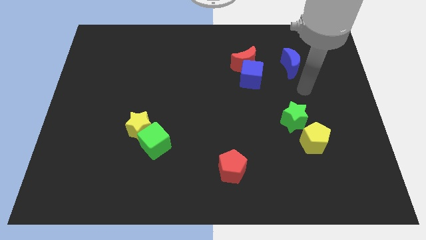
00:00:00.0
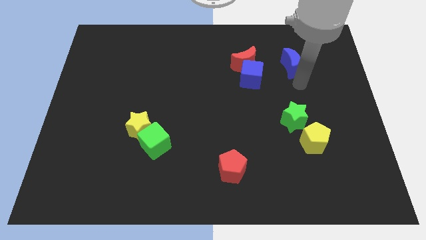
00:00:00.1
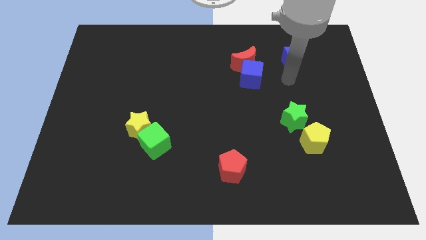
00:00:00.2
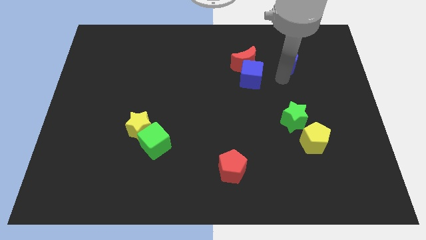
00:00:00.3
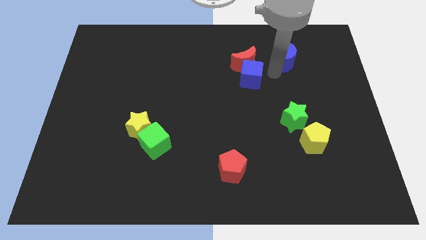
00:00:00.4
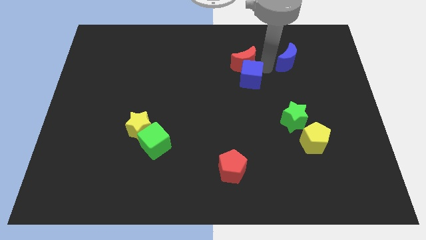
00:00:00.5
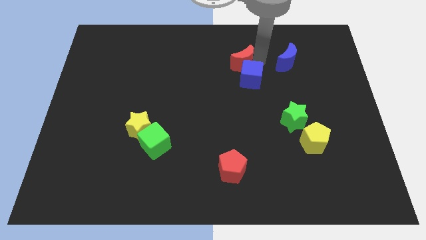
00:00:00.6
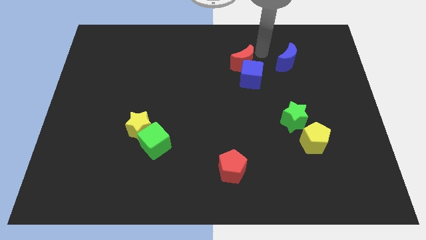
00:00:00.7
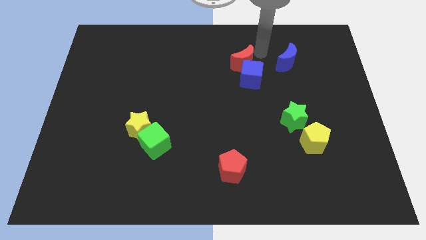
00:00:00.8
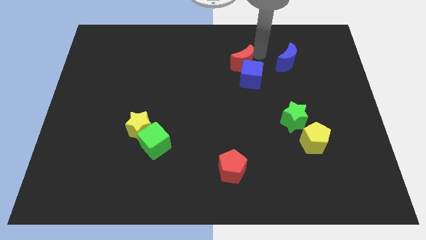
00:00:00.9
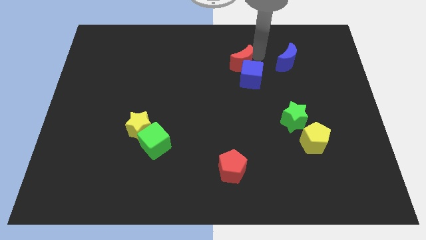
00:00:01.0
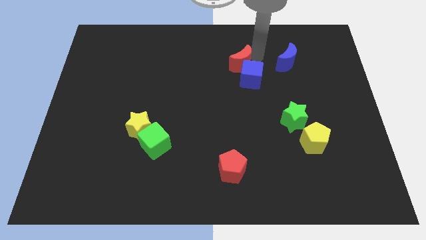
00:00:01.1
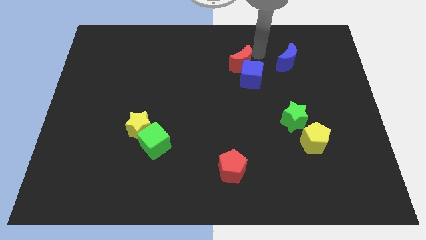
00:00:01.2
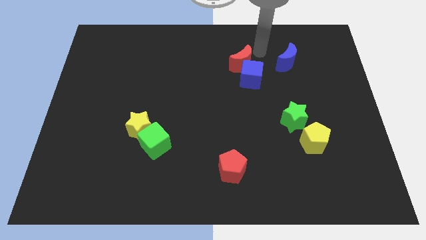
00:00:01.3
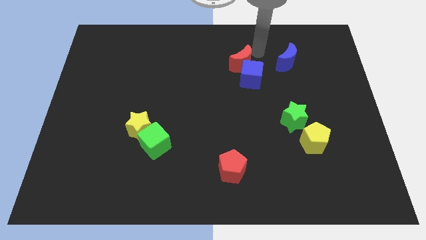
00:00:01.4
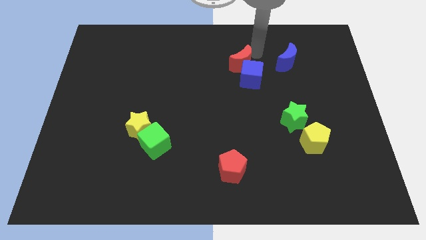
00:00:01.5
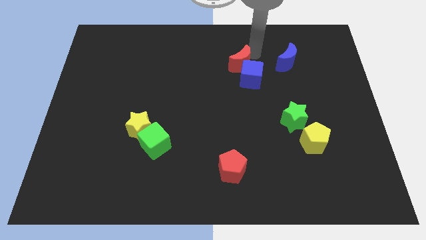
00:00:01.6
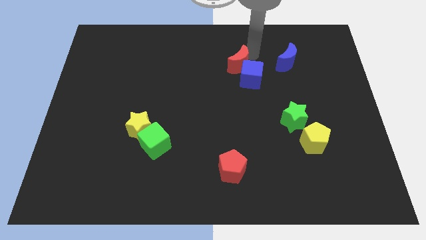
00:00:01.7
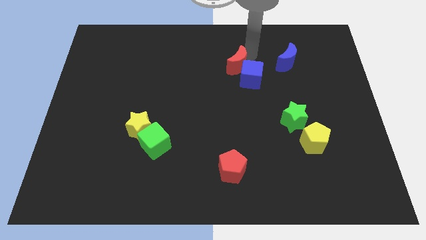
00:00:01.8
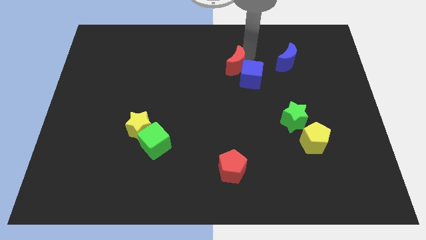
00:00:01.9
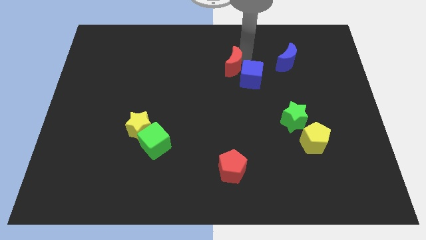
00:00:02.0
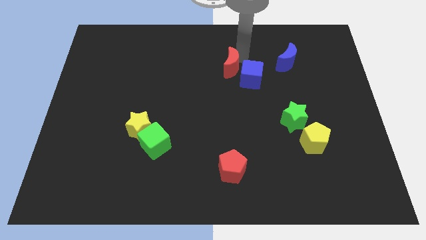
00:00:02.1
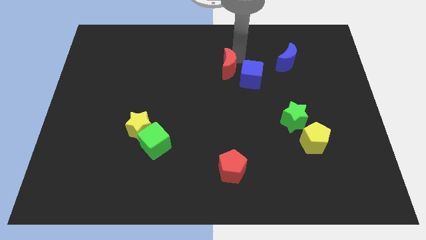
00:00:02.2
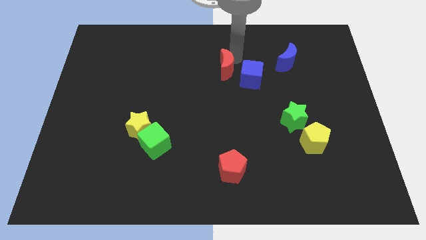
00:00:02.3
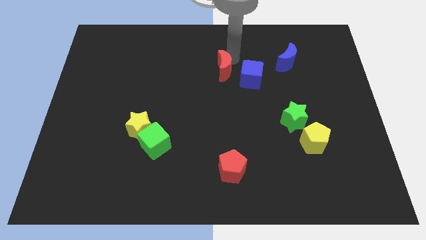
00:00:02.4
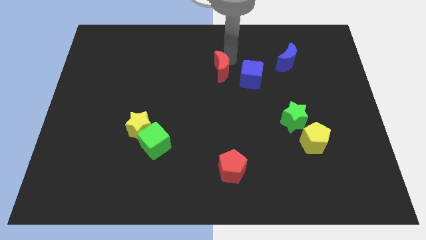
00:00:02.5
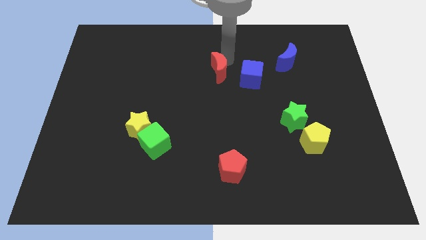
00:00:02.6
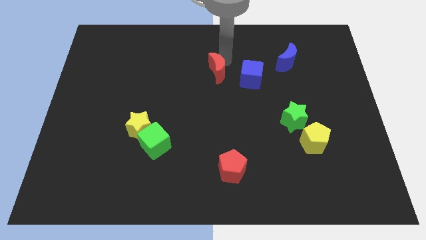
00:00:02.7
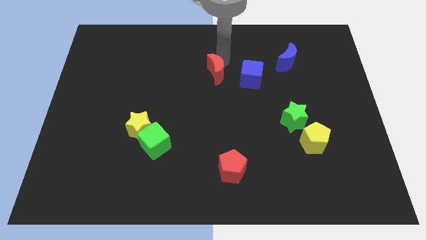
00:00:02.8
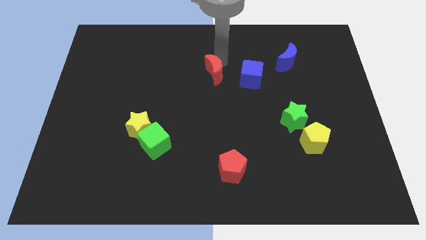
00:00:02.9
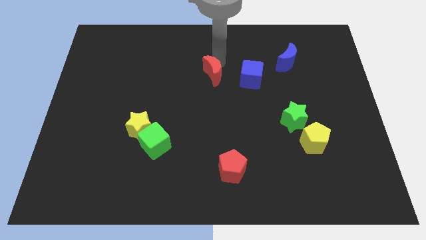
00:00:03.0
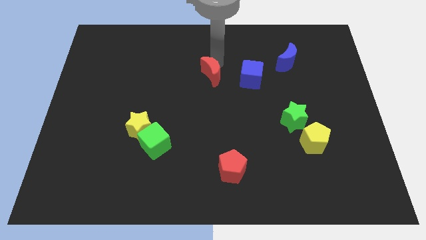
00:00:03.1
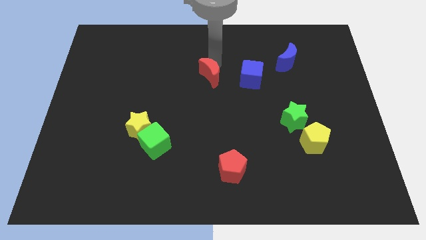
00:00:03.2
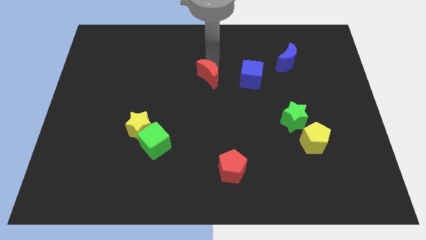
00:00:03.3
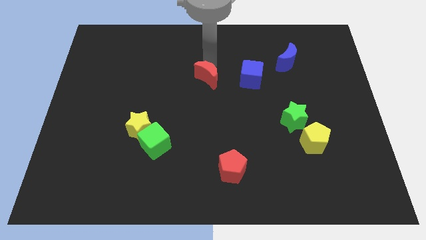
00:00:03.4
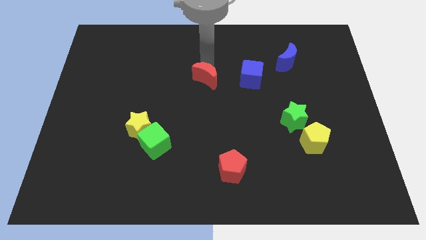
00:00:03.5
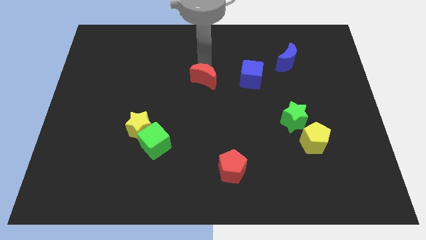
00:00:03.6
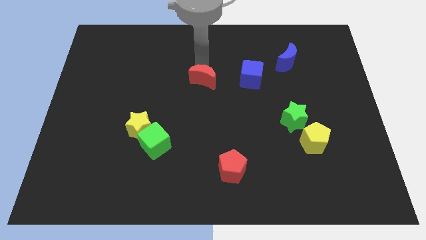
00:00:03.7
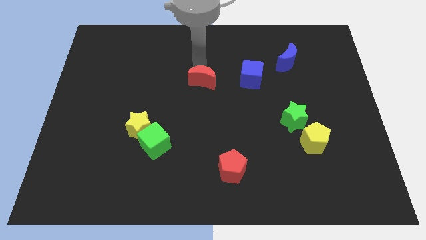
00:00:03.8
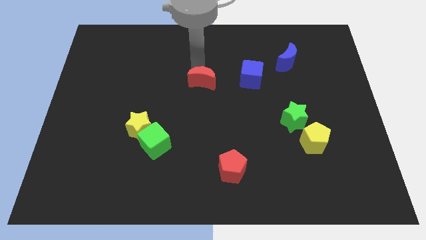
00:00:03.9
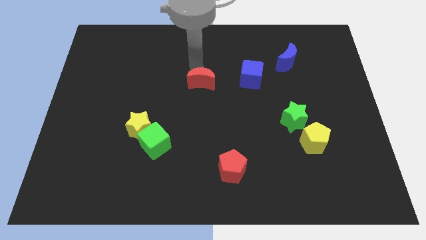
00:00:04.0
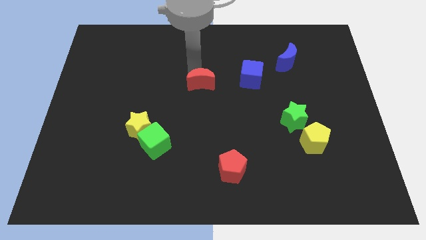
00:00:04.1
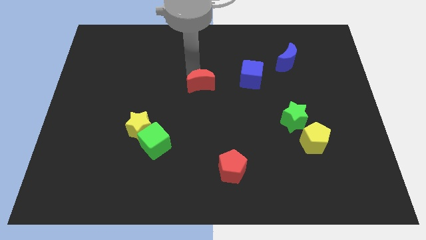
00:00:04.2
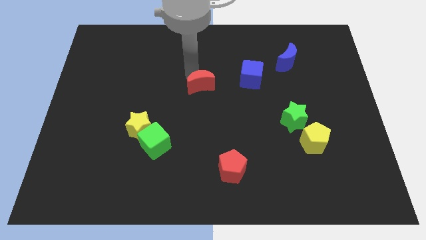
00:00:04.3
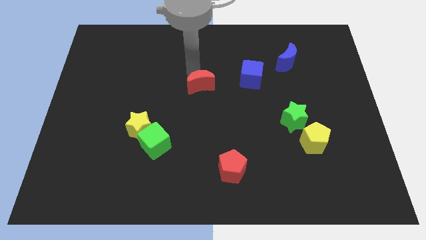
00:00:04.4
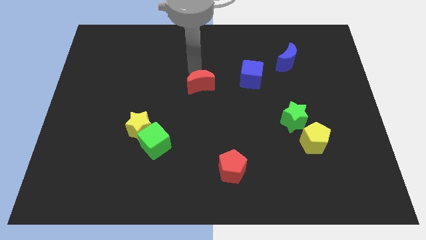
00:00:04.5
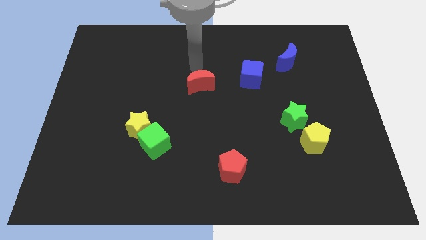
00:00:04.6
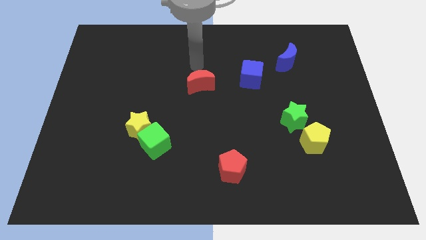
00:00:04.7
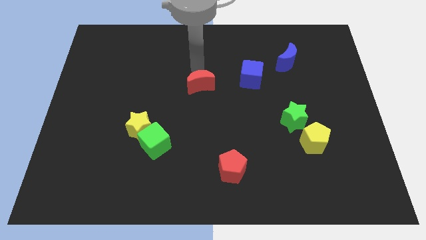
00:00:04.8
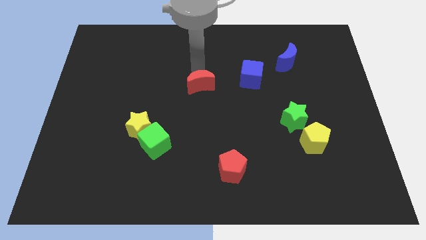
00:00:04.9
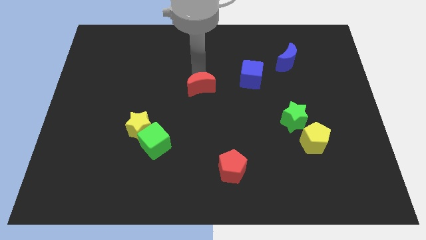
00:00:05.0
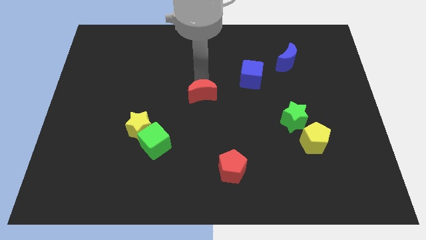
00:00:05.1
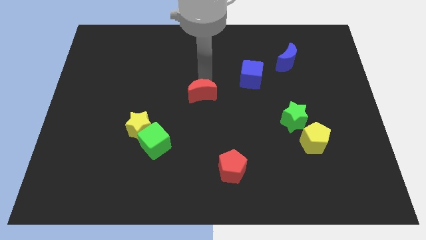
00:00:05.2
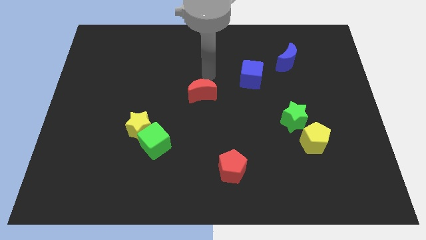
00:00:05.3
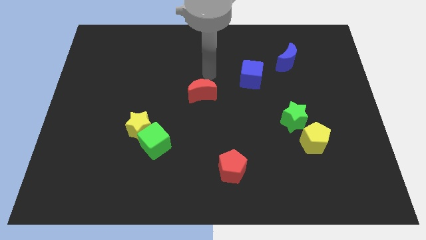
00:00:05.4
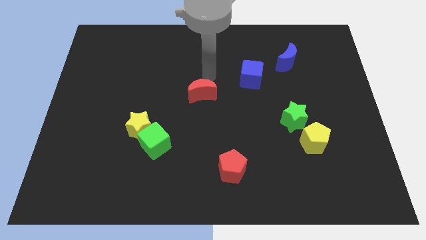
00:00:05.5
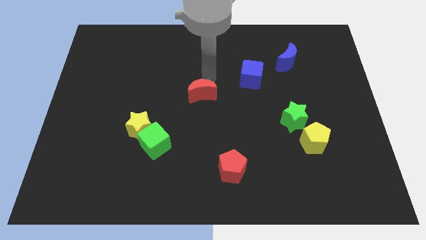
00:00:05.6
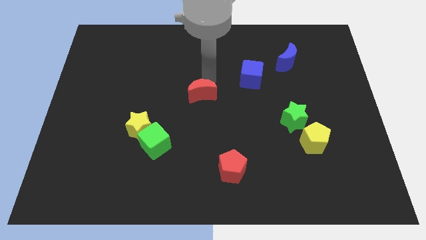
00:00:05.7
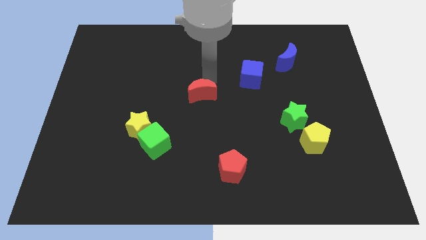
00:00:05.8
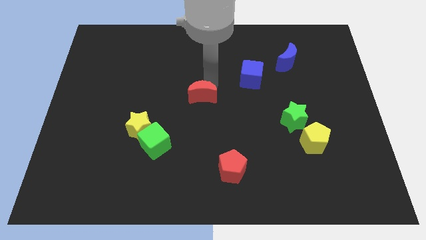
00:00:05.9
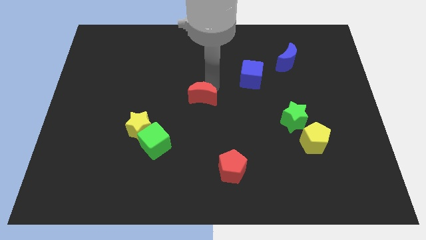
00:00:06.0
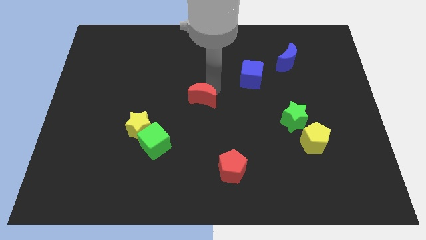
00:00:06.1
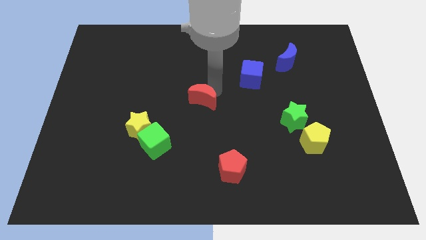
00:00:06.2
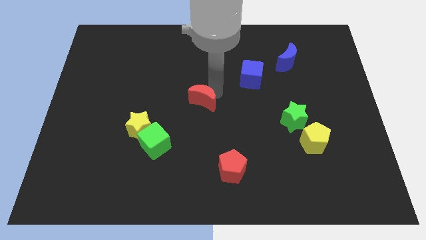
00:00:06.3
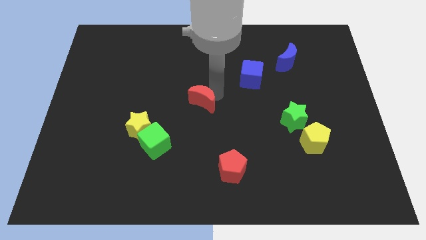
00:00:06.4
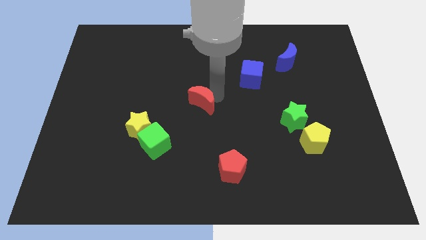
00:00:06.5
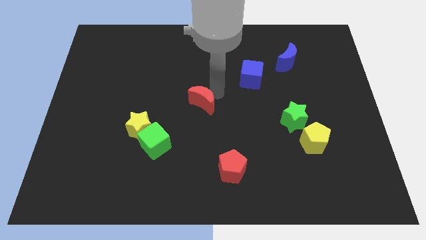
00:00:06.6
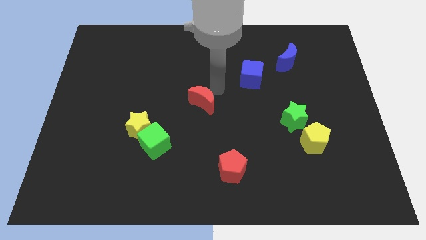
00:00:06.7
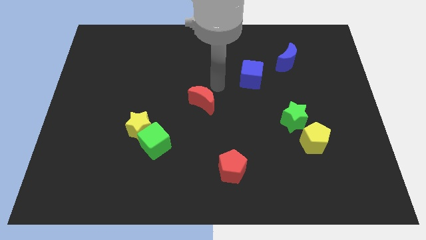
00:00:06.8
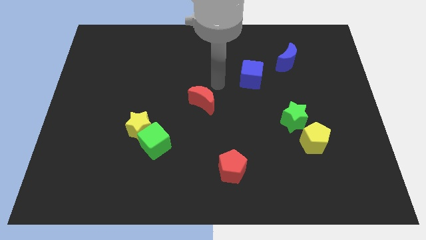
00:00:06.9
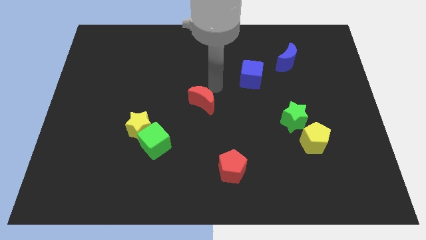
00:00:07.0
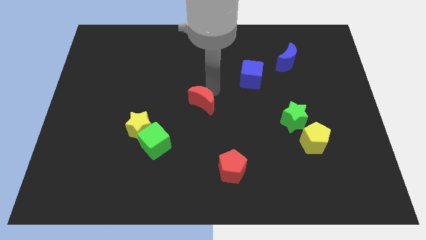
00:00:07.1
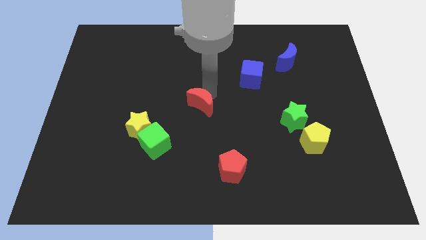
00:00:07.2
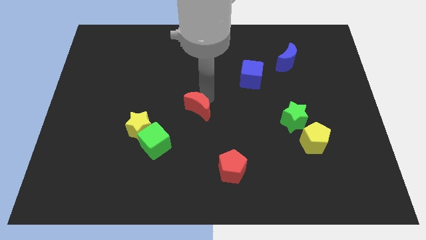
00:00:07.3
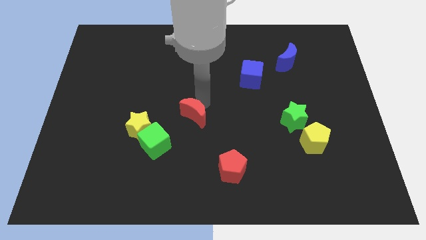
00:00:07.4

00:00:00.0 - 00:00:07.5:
slide the red moon to the right of the yellow star

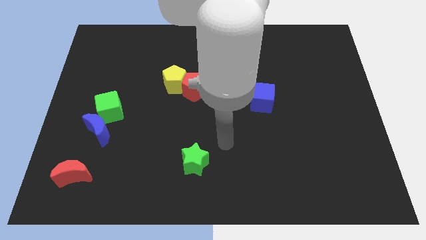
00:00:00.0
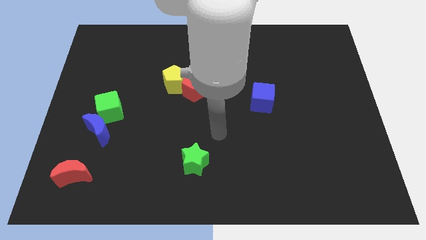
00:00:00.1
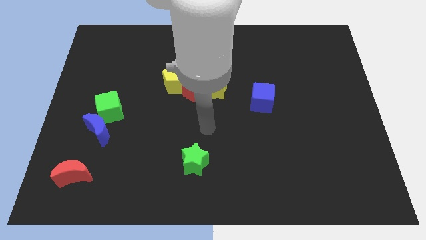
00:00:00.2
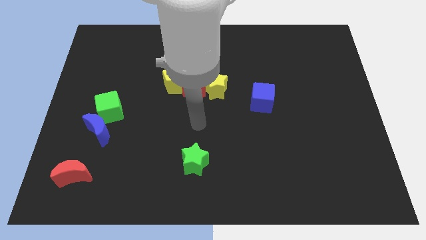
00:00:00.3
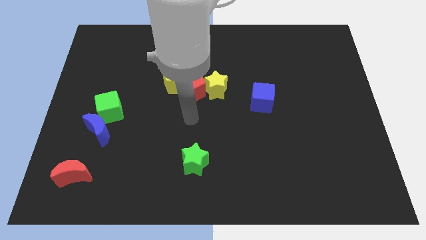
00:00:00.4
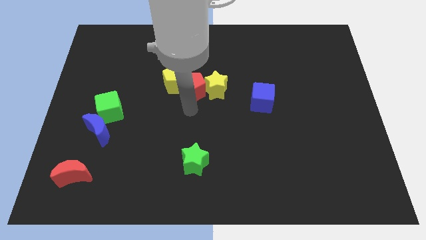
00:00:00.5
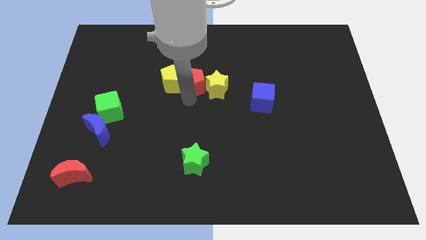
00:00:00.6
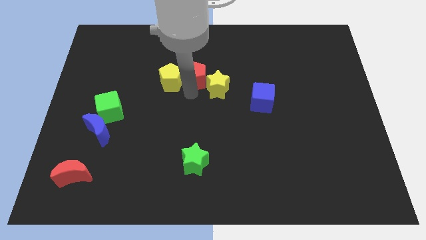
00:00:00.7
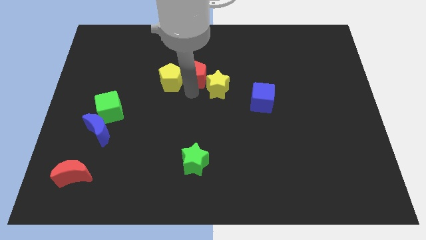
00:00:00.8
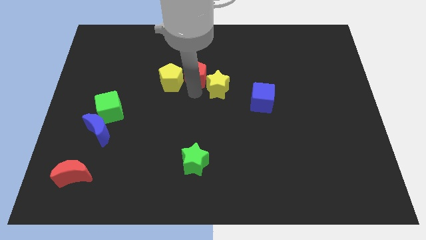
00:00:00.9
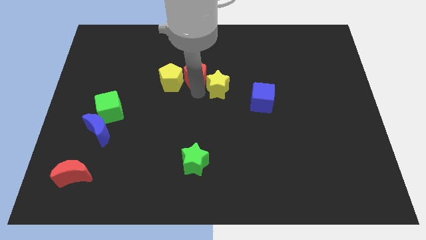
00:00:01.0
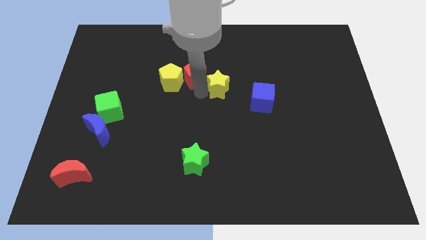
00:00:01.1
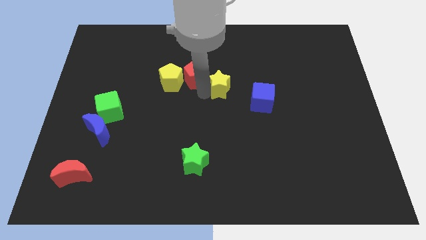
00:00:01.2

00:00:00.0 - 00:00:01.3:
push the yellow star to the top left side of the blue cube
